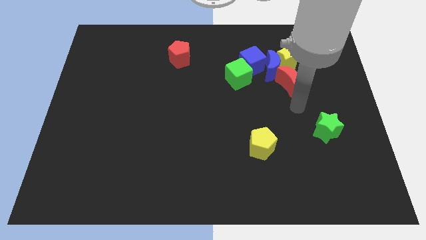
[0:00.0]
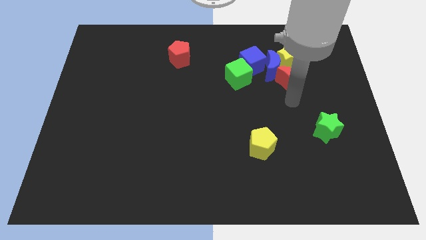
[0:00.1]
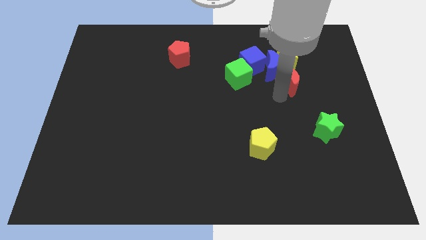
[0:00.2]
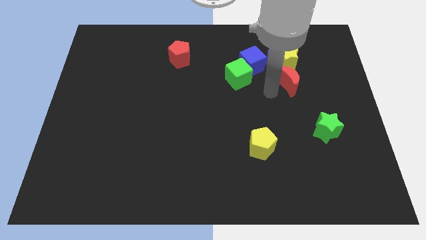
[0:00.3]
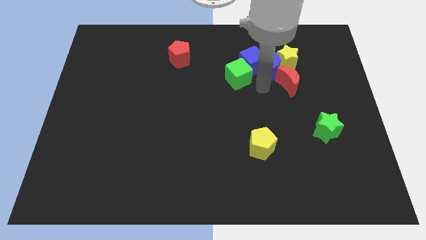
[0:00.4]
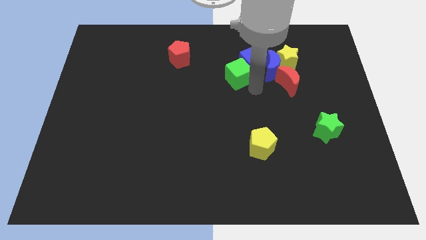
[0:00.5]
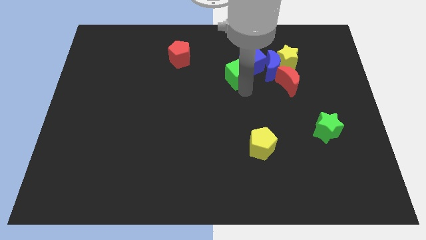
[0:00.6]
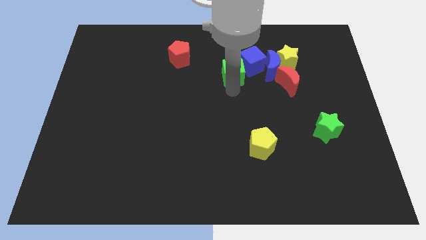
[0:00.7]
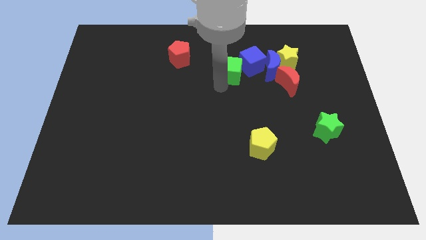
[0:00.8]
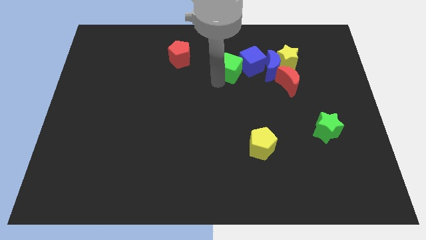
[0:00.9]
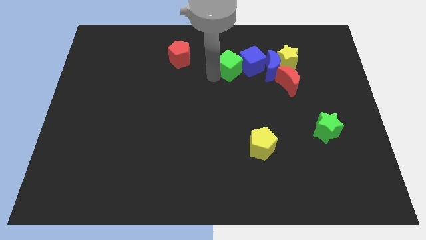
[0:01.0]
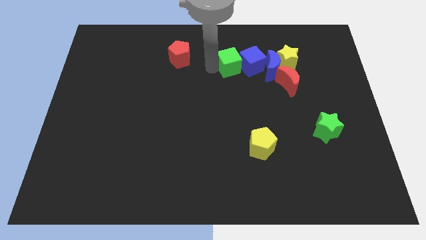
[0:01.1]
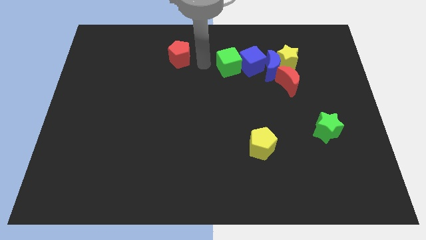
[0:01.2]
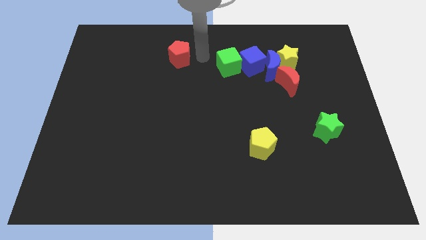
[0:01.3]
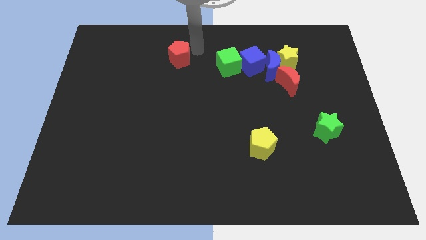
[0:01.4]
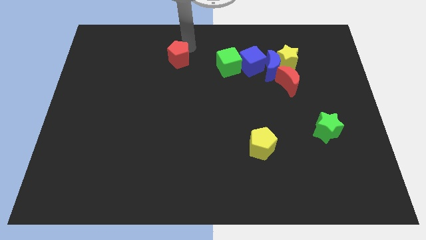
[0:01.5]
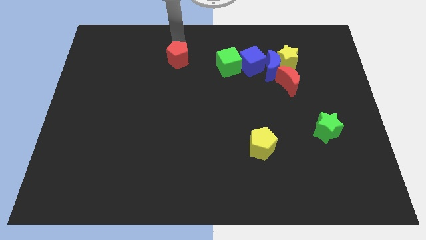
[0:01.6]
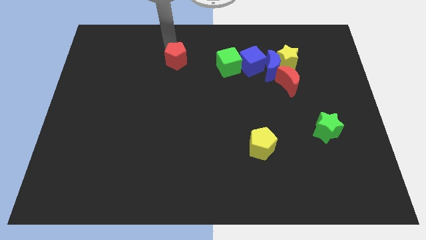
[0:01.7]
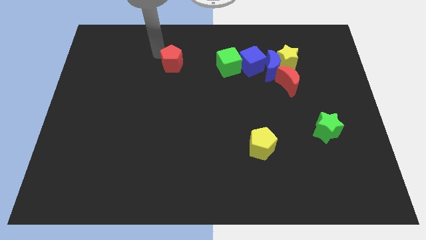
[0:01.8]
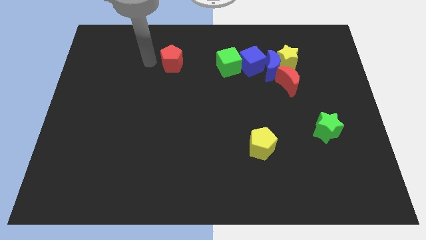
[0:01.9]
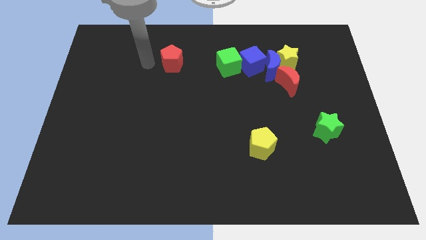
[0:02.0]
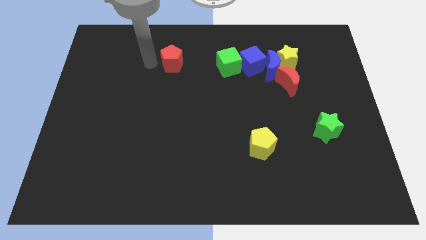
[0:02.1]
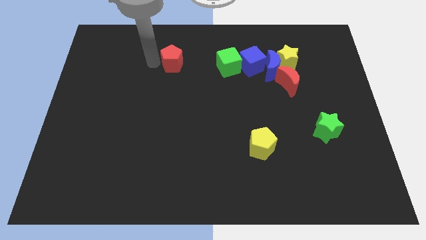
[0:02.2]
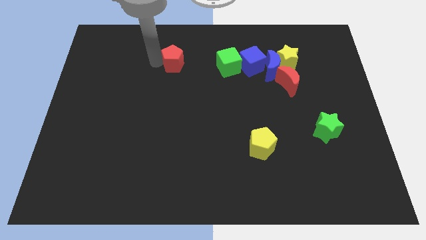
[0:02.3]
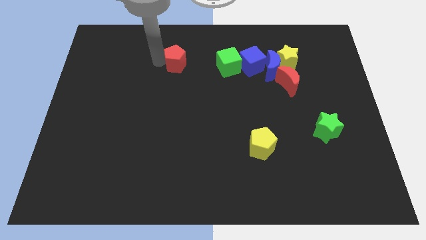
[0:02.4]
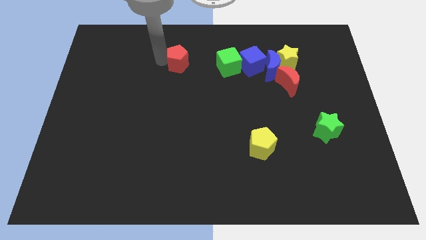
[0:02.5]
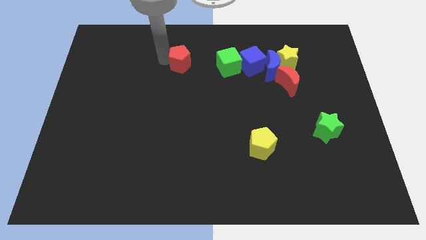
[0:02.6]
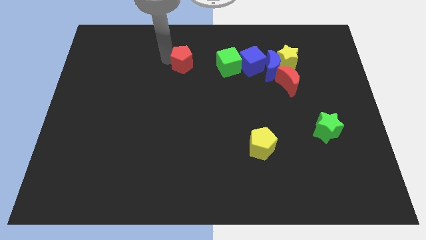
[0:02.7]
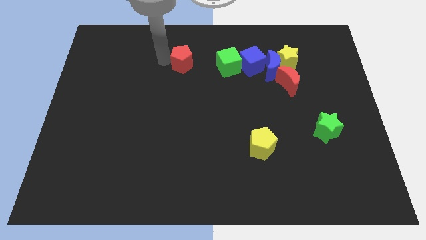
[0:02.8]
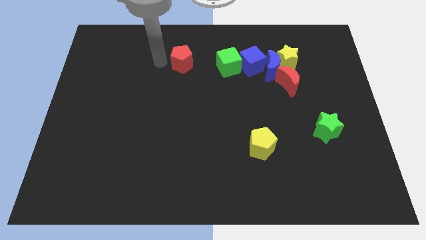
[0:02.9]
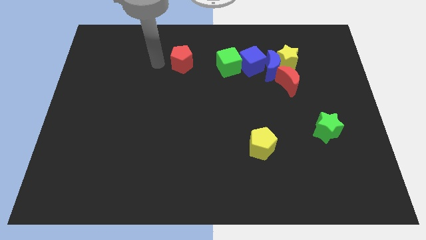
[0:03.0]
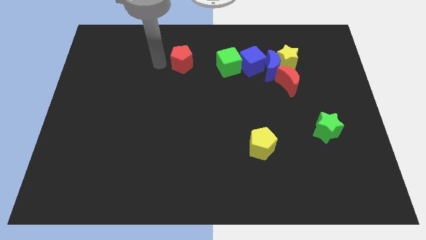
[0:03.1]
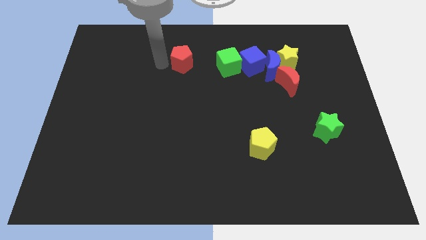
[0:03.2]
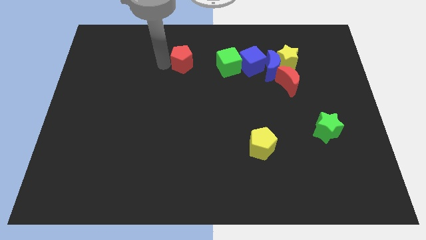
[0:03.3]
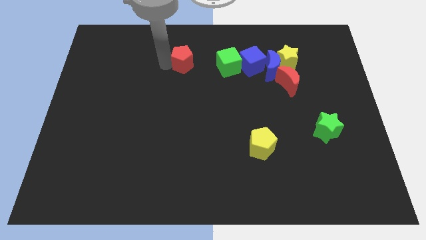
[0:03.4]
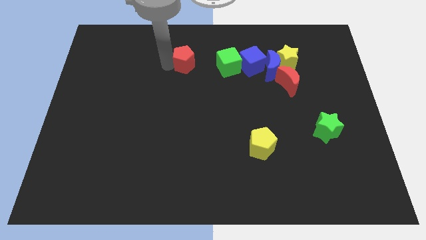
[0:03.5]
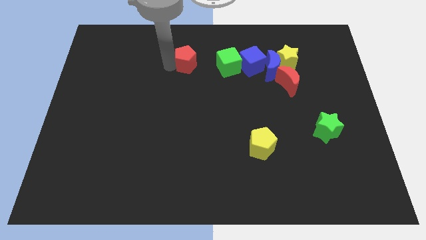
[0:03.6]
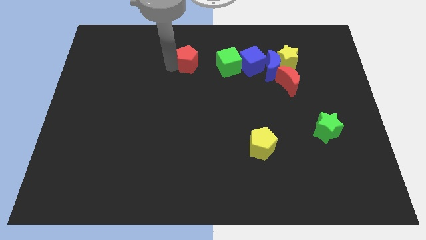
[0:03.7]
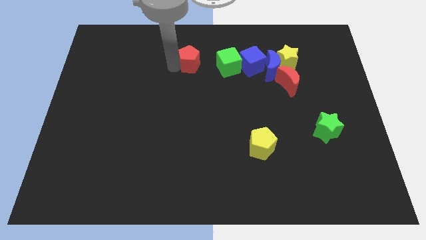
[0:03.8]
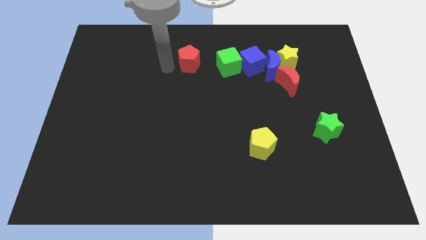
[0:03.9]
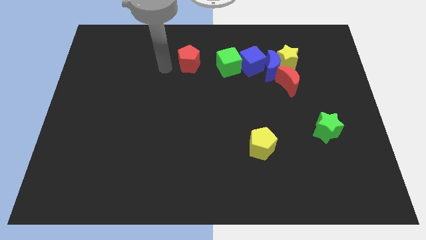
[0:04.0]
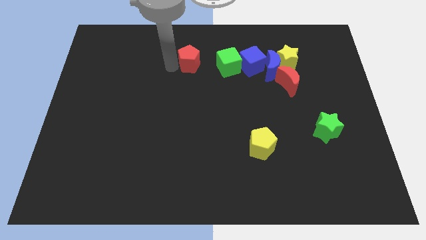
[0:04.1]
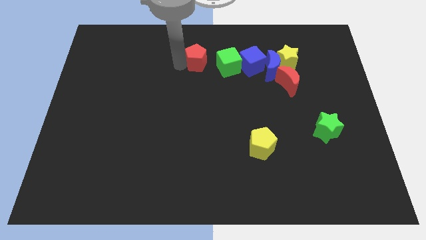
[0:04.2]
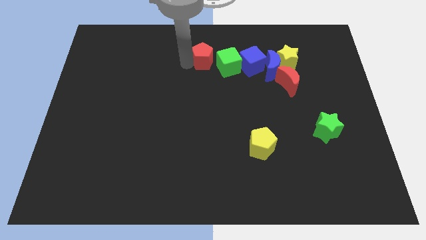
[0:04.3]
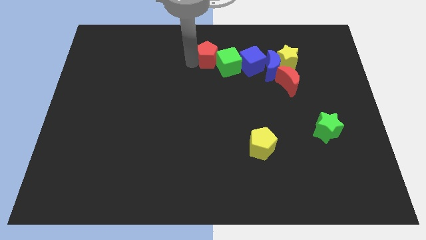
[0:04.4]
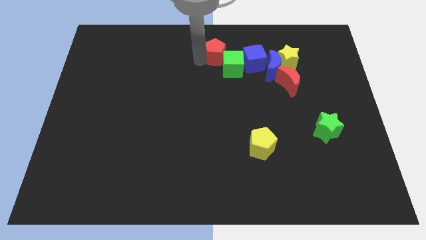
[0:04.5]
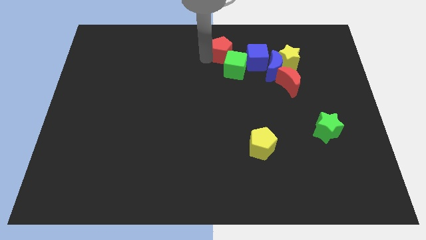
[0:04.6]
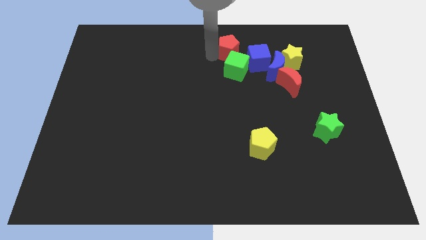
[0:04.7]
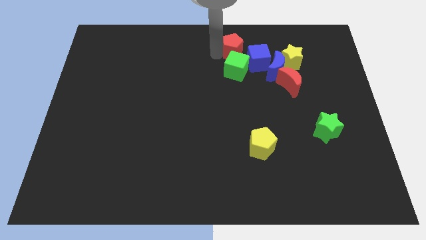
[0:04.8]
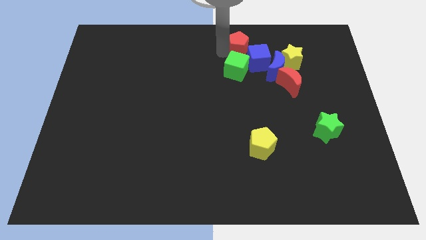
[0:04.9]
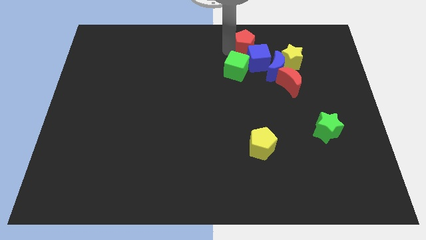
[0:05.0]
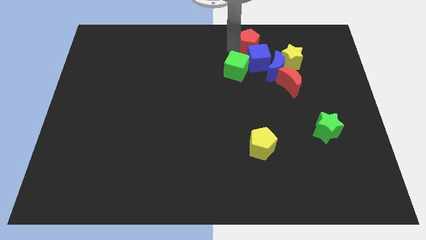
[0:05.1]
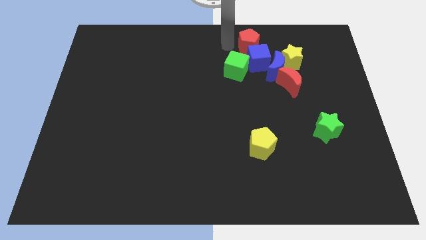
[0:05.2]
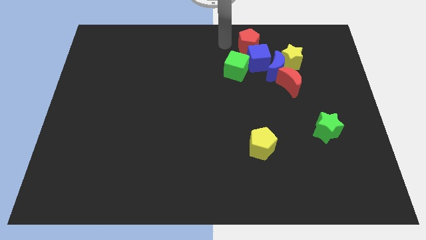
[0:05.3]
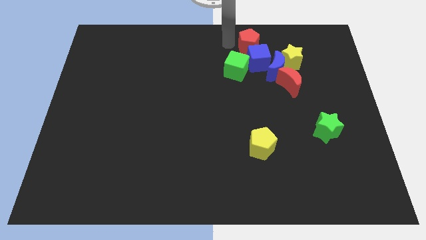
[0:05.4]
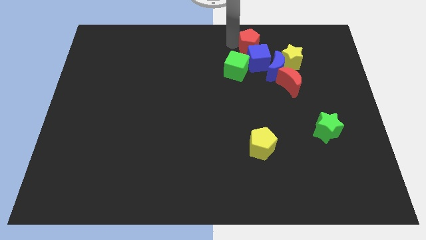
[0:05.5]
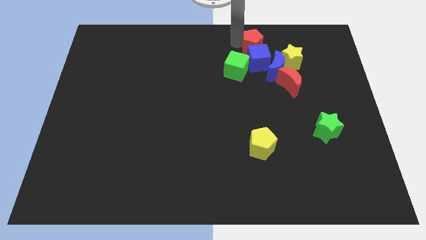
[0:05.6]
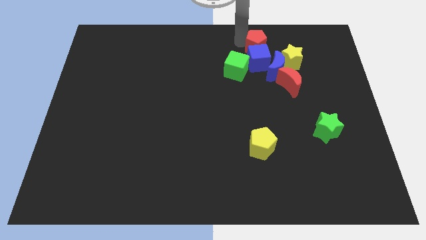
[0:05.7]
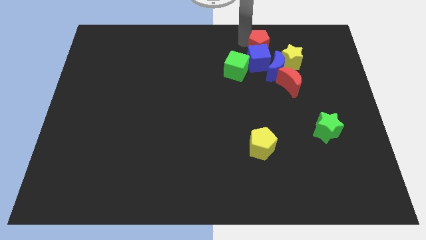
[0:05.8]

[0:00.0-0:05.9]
slide the red pentagon to the right

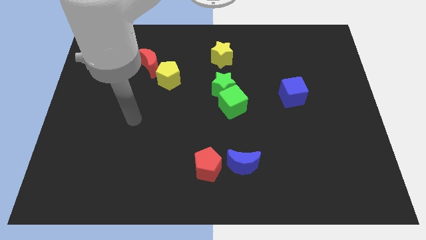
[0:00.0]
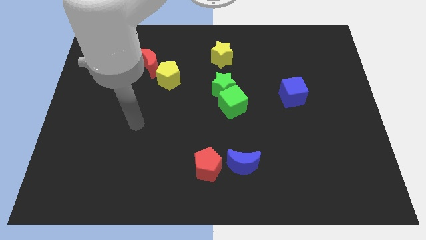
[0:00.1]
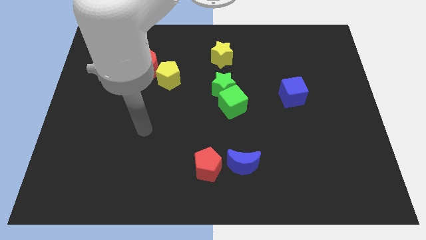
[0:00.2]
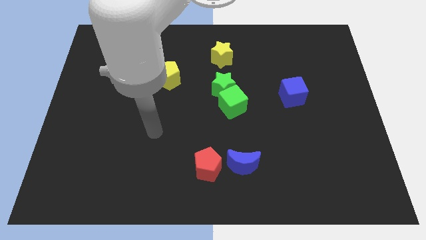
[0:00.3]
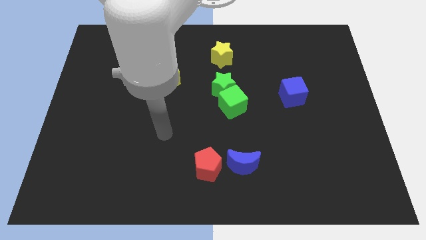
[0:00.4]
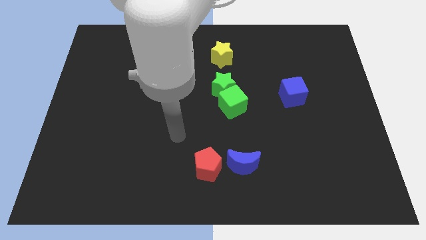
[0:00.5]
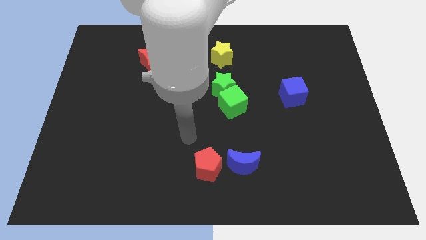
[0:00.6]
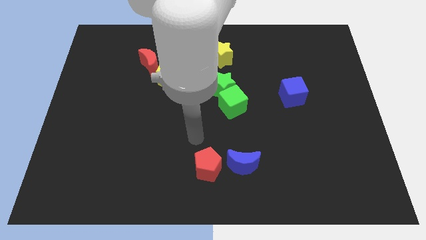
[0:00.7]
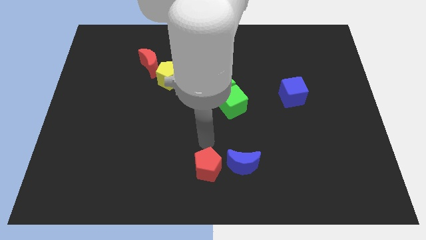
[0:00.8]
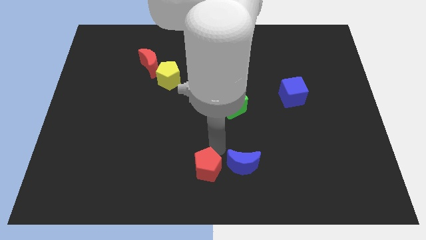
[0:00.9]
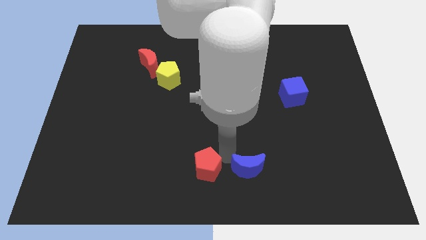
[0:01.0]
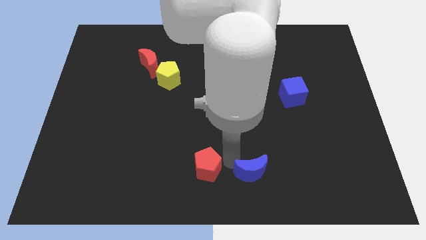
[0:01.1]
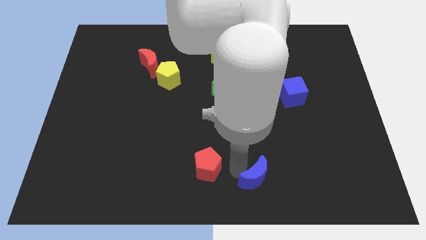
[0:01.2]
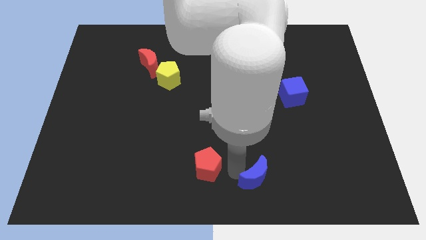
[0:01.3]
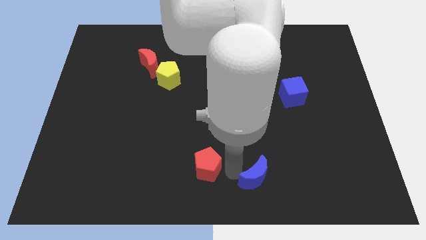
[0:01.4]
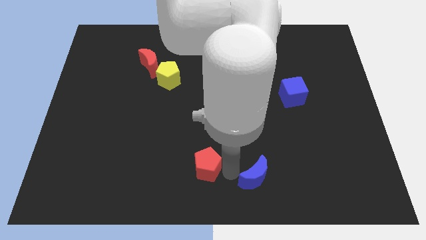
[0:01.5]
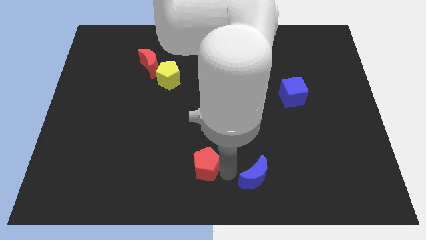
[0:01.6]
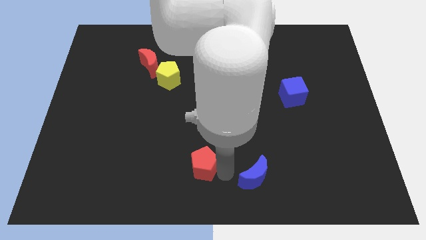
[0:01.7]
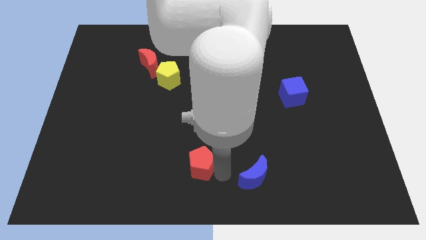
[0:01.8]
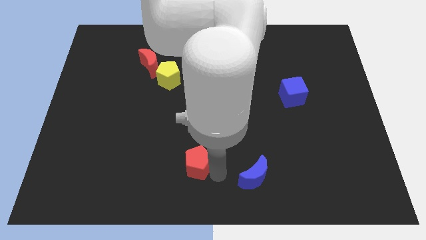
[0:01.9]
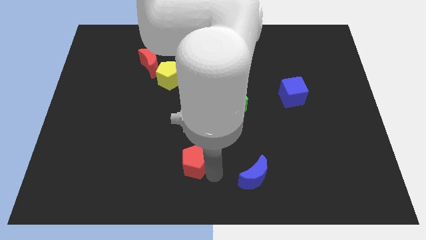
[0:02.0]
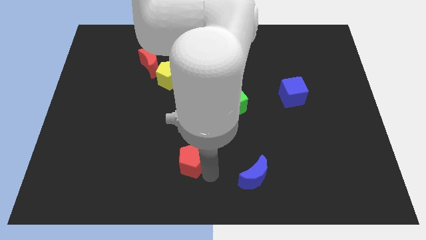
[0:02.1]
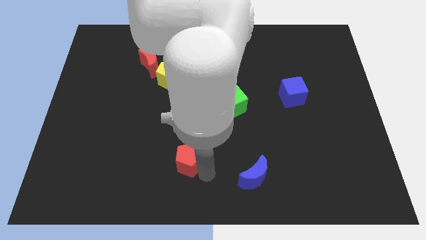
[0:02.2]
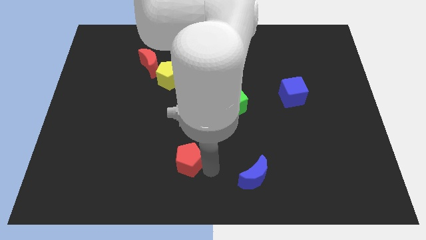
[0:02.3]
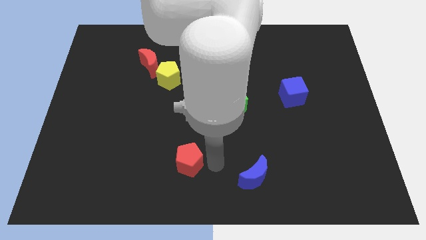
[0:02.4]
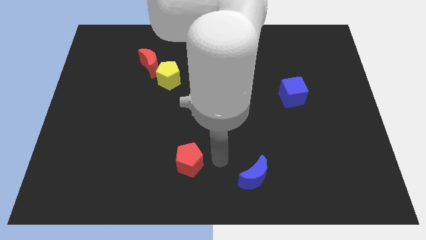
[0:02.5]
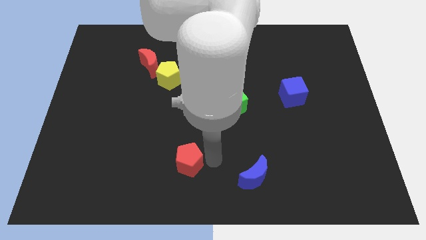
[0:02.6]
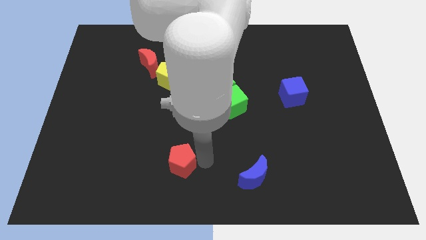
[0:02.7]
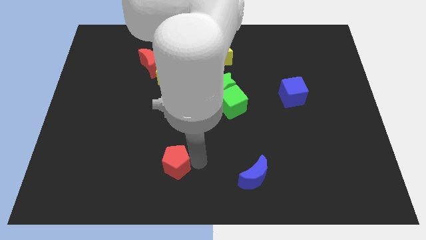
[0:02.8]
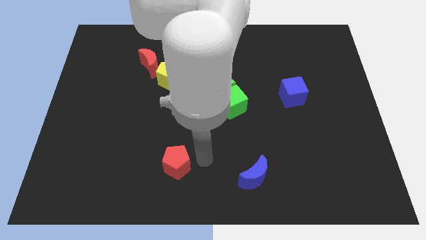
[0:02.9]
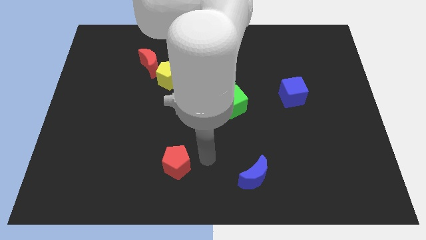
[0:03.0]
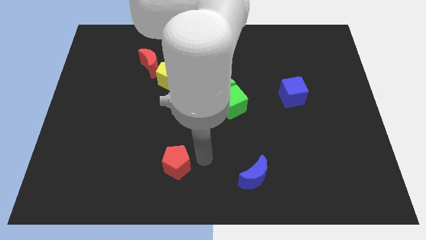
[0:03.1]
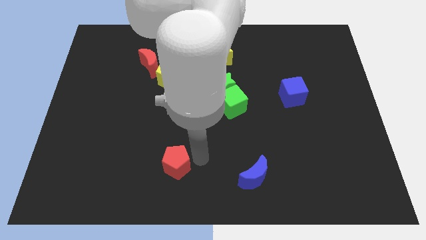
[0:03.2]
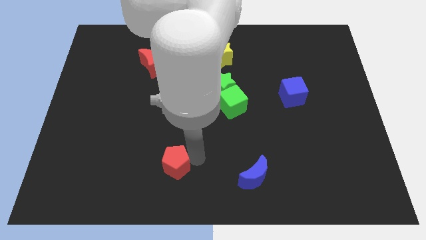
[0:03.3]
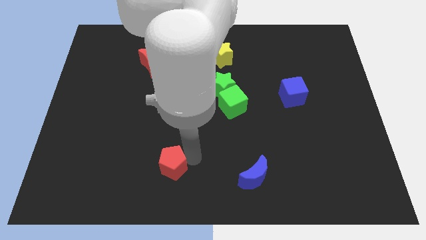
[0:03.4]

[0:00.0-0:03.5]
slide the red pentagon somewhat left
